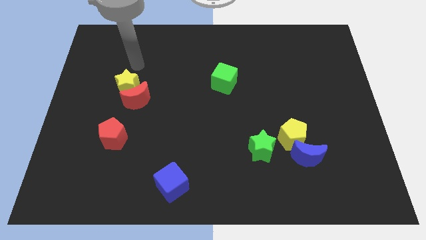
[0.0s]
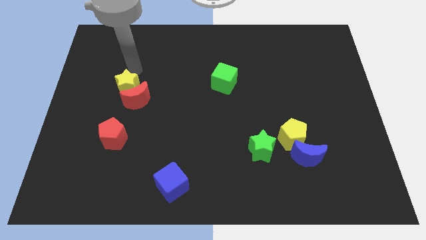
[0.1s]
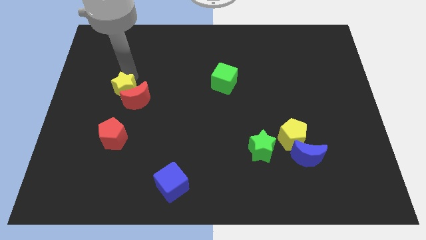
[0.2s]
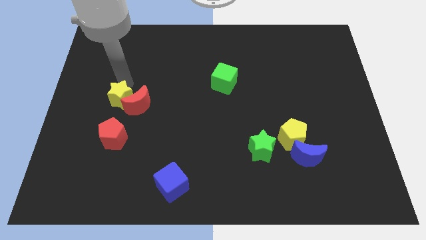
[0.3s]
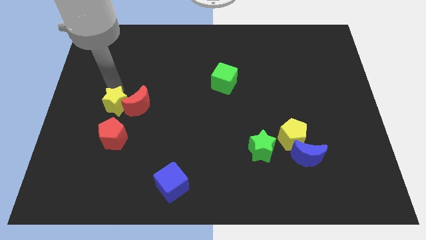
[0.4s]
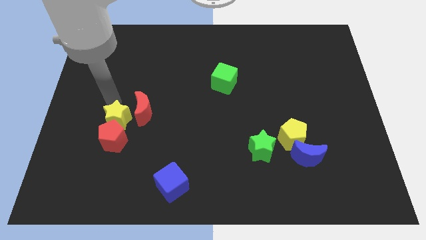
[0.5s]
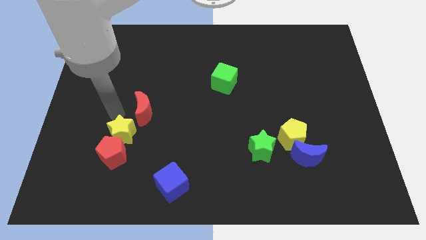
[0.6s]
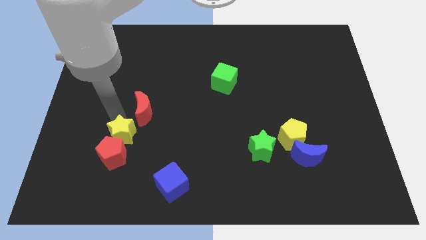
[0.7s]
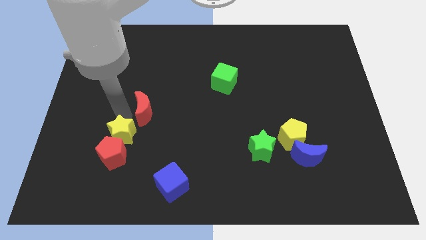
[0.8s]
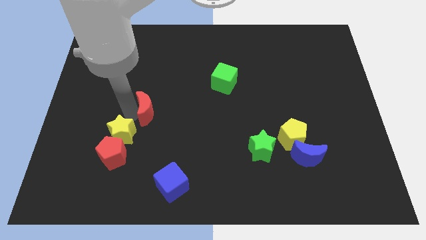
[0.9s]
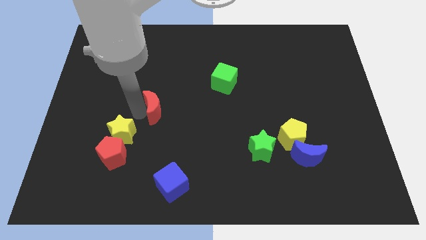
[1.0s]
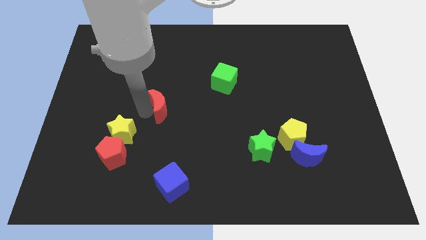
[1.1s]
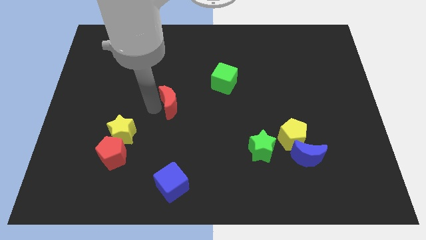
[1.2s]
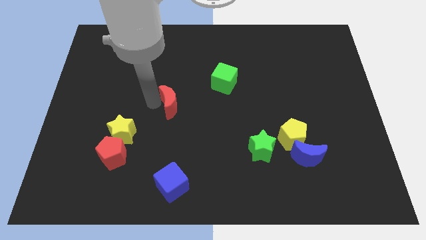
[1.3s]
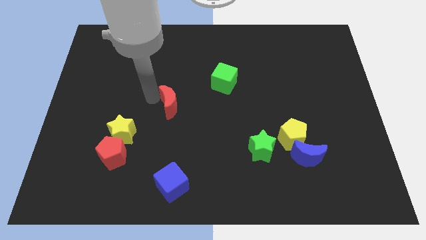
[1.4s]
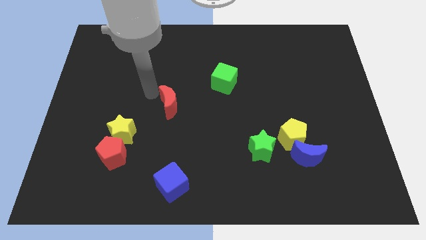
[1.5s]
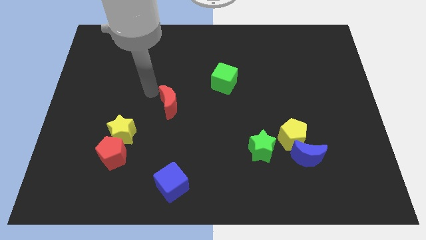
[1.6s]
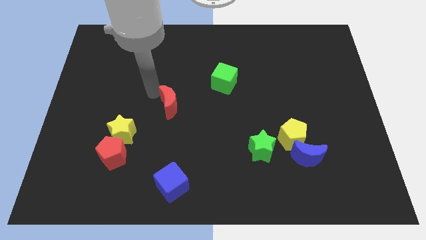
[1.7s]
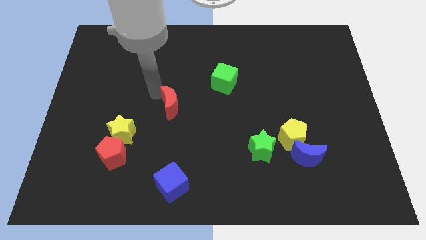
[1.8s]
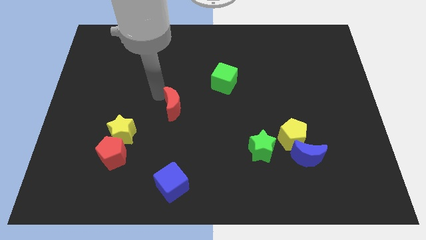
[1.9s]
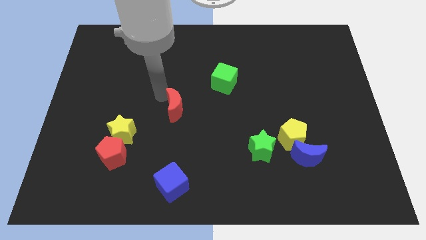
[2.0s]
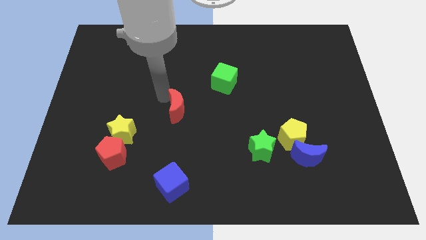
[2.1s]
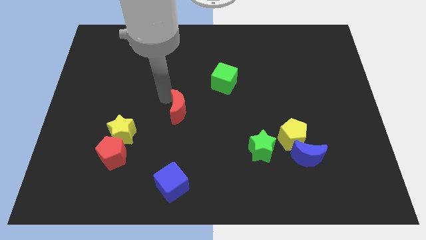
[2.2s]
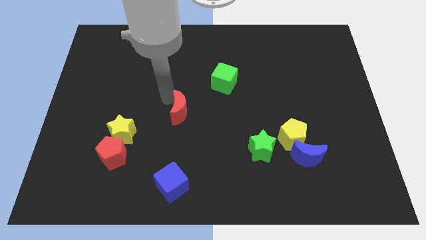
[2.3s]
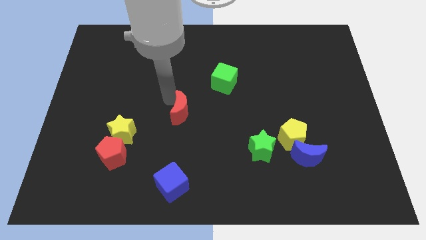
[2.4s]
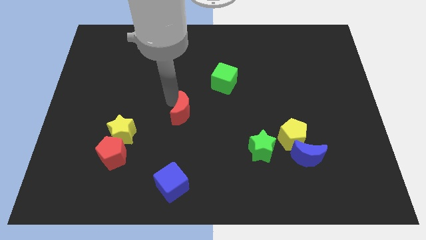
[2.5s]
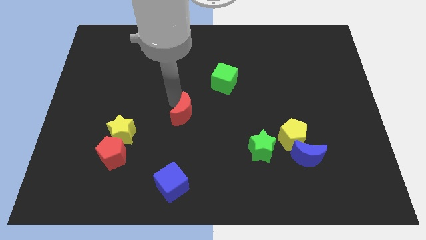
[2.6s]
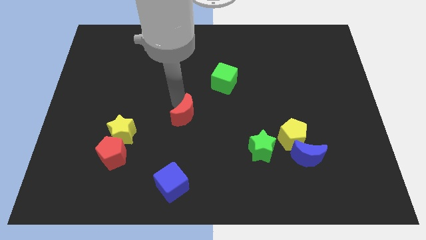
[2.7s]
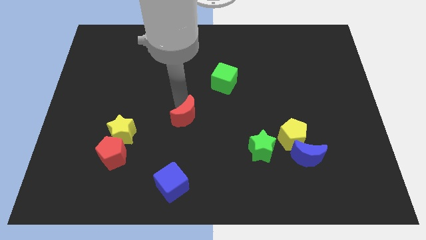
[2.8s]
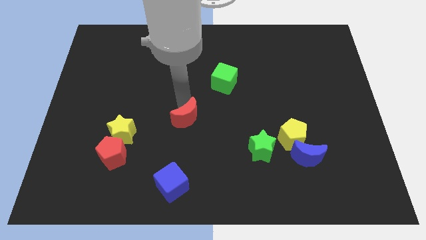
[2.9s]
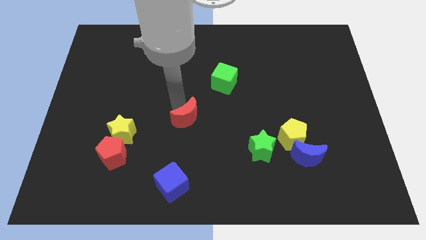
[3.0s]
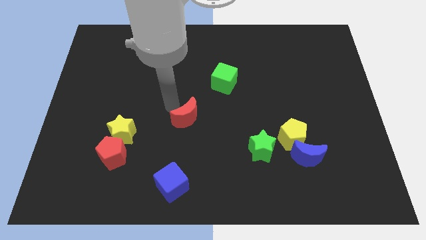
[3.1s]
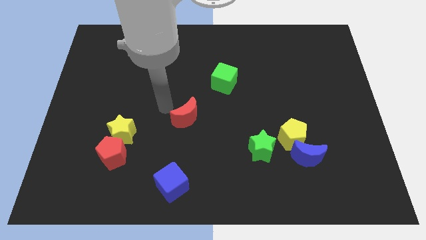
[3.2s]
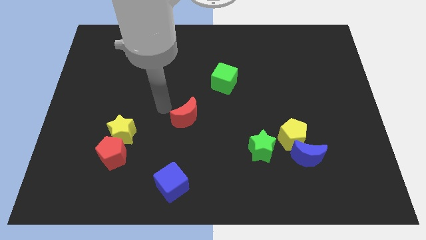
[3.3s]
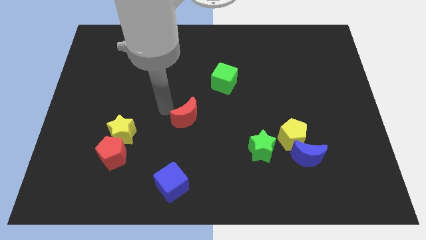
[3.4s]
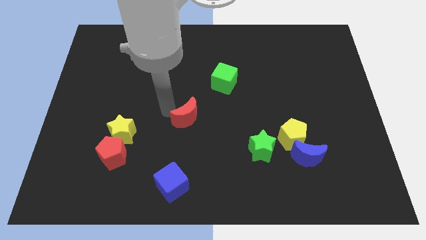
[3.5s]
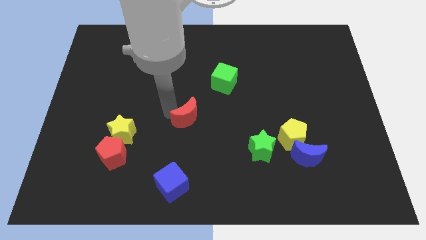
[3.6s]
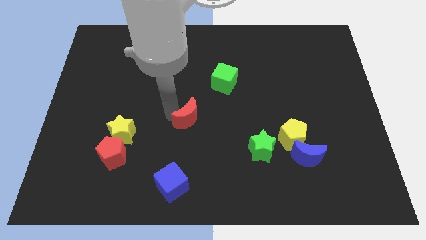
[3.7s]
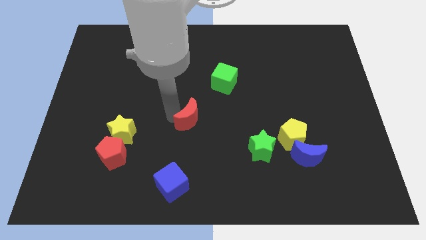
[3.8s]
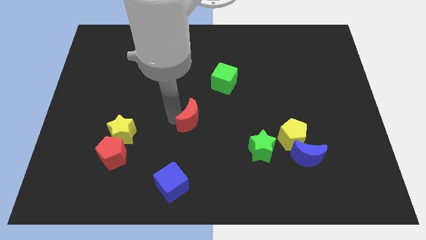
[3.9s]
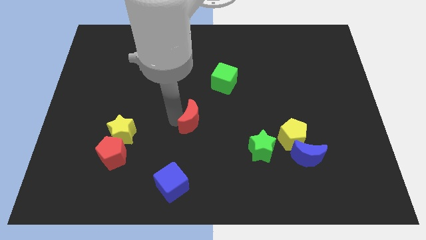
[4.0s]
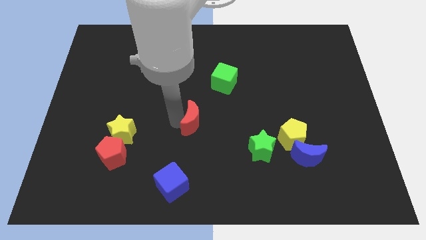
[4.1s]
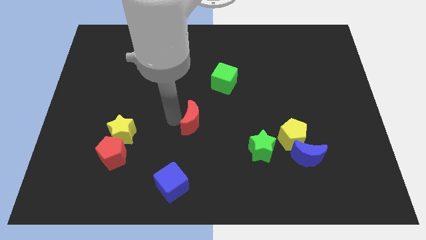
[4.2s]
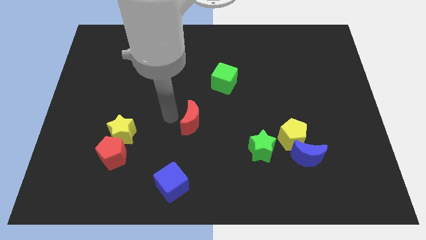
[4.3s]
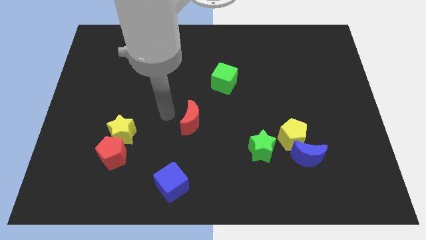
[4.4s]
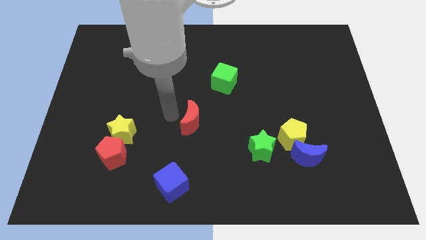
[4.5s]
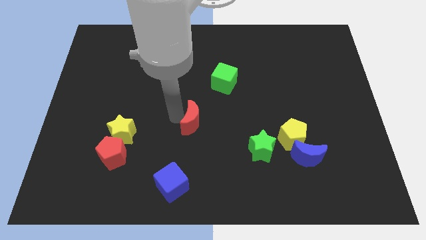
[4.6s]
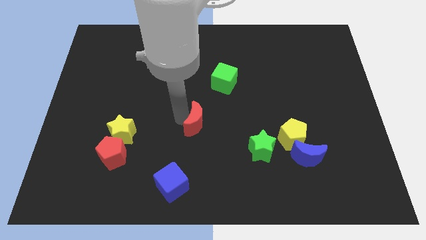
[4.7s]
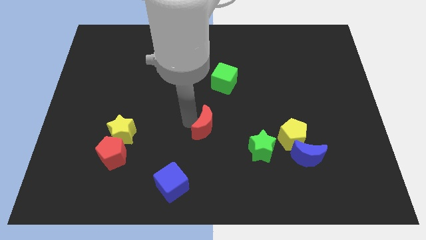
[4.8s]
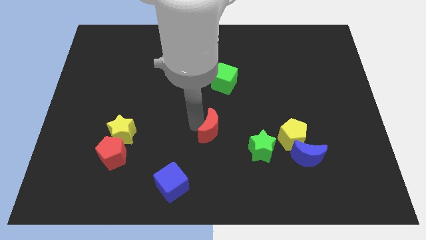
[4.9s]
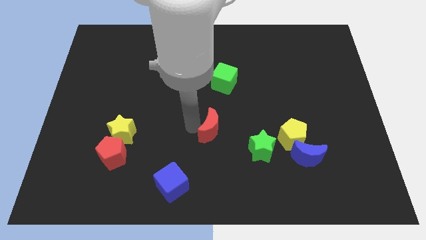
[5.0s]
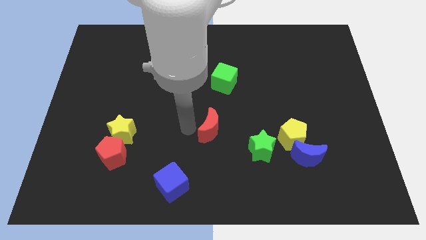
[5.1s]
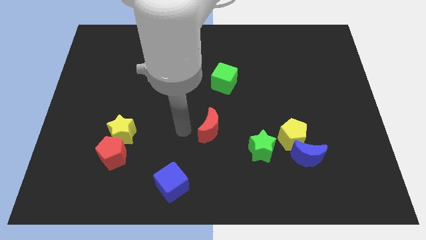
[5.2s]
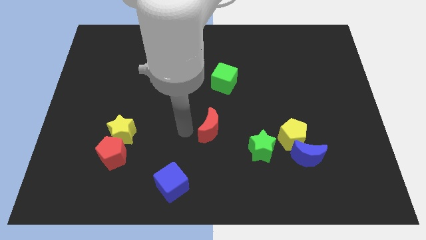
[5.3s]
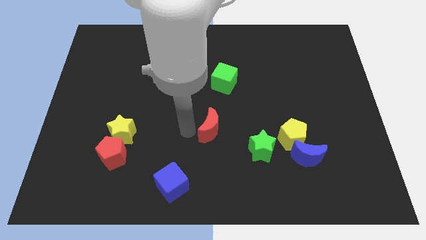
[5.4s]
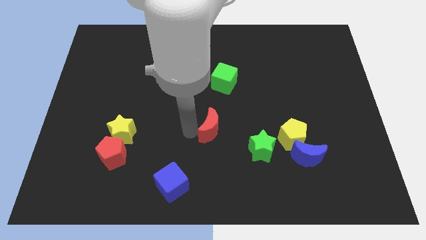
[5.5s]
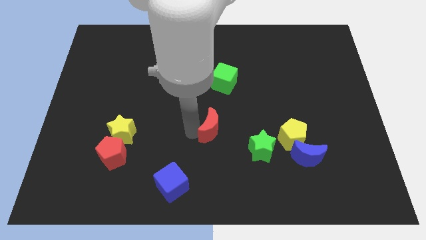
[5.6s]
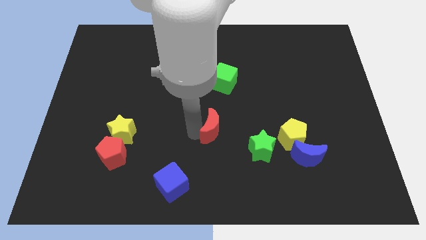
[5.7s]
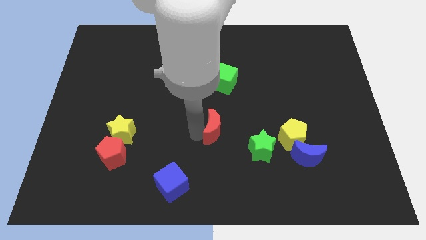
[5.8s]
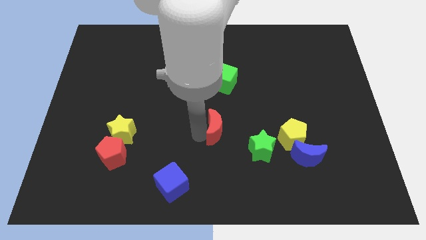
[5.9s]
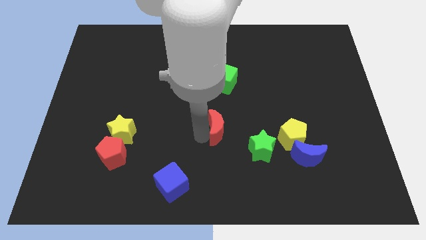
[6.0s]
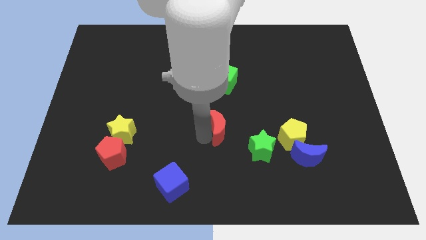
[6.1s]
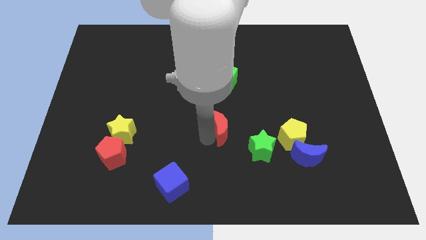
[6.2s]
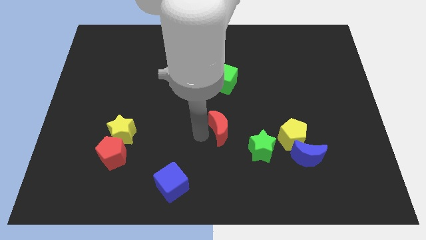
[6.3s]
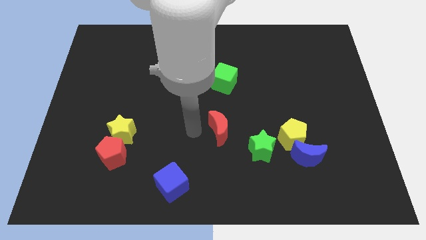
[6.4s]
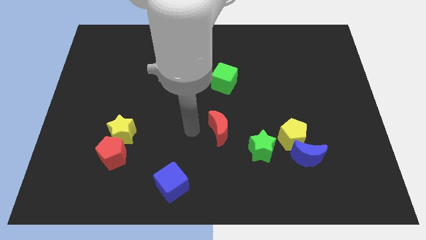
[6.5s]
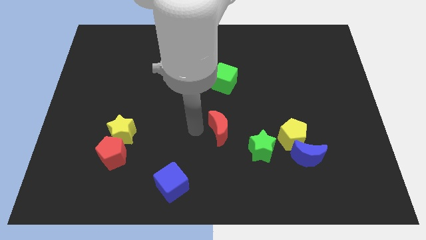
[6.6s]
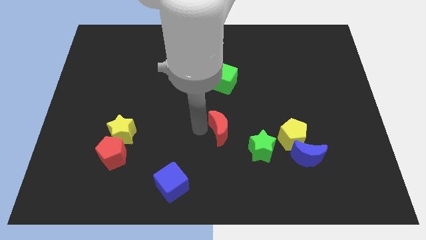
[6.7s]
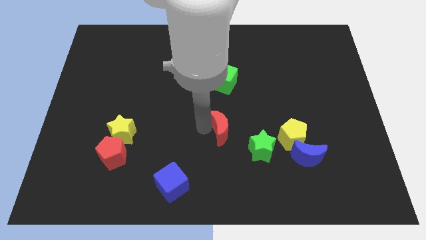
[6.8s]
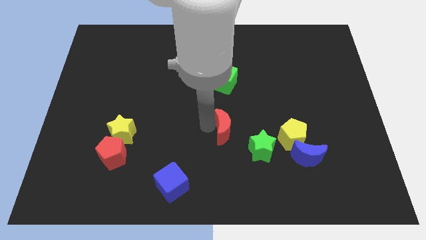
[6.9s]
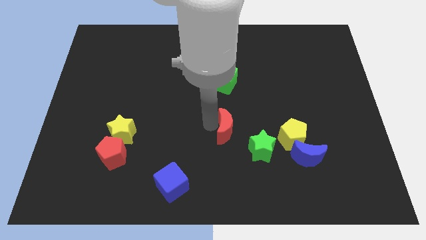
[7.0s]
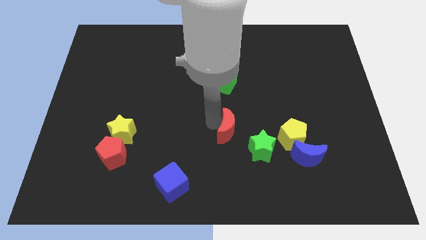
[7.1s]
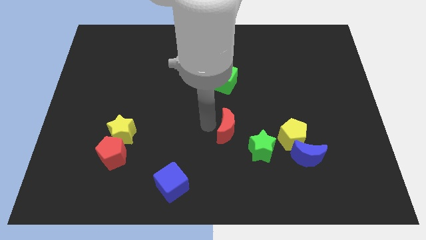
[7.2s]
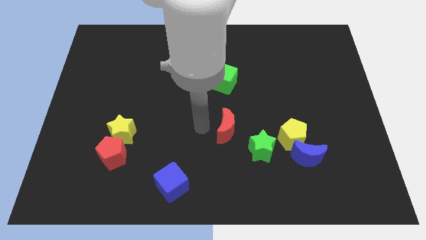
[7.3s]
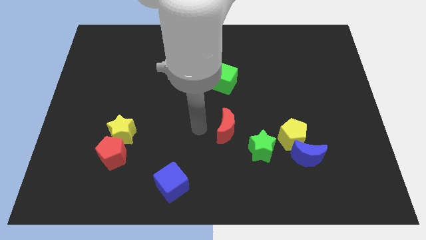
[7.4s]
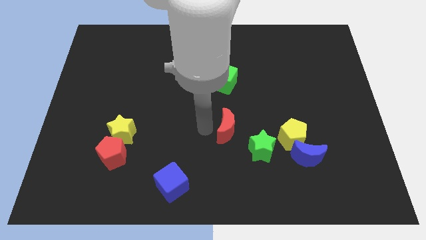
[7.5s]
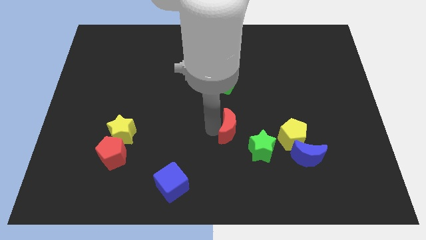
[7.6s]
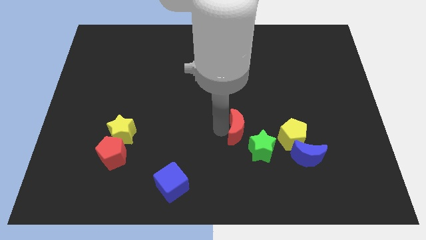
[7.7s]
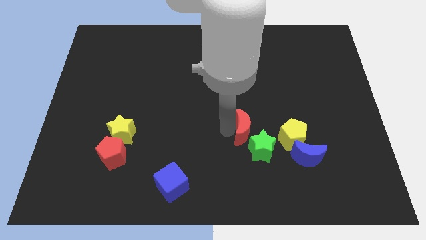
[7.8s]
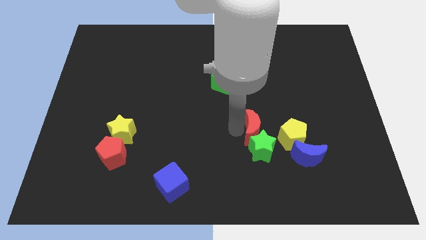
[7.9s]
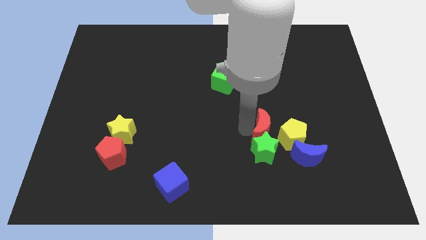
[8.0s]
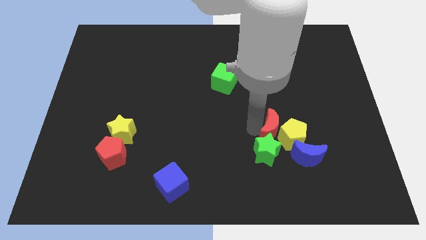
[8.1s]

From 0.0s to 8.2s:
put the red moon next to the yellow pentagon
